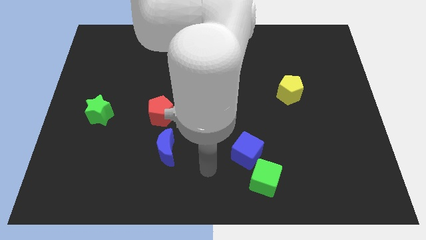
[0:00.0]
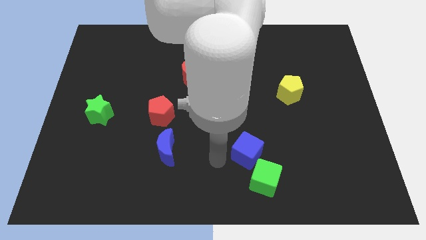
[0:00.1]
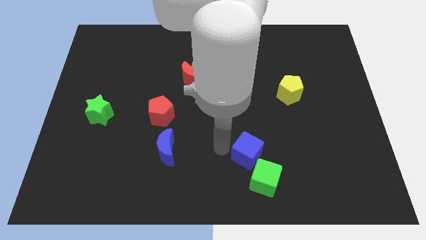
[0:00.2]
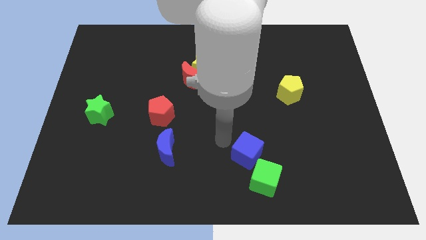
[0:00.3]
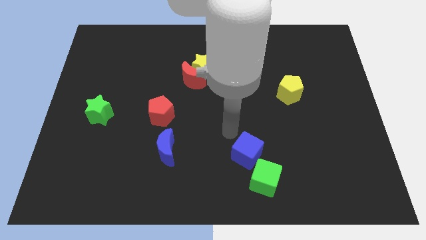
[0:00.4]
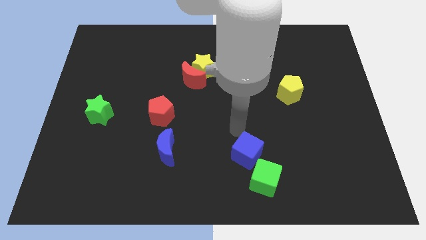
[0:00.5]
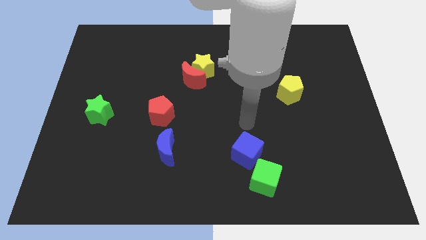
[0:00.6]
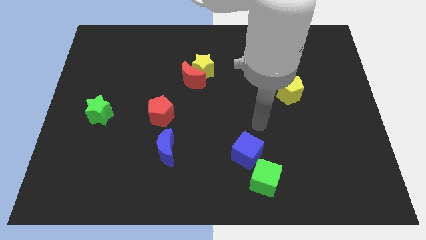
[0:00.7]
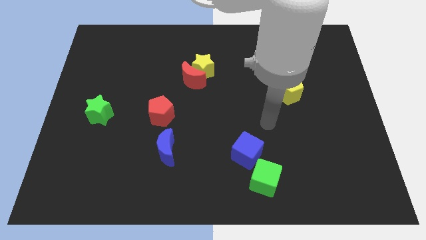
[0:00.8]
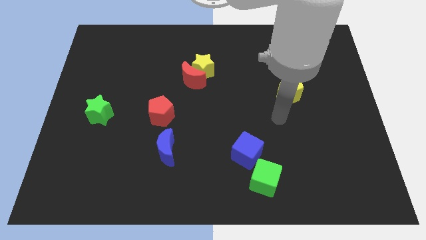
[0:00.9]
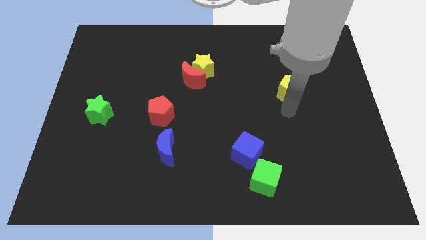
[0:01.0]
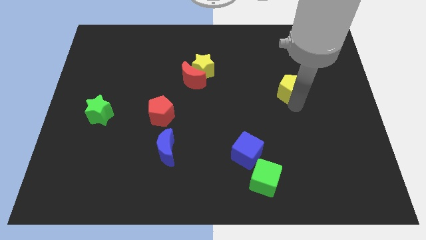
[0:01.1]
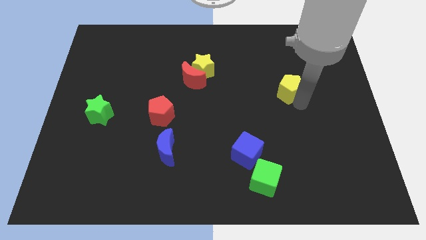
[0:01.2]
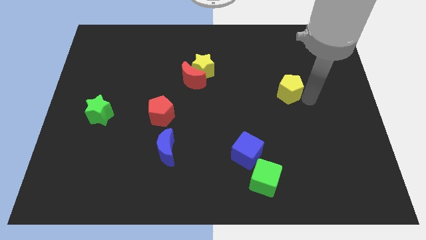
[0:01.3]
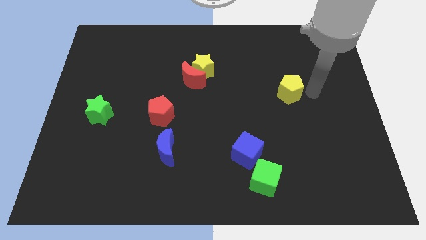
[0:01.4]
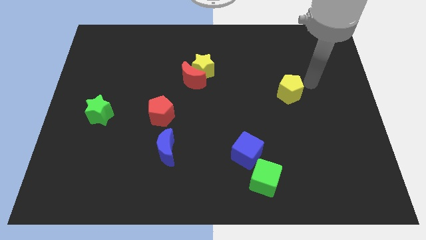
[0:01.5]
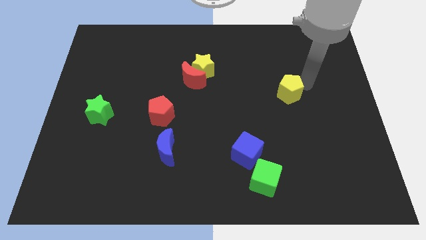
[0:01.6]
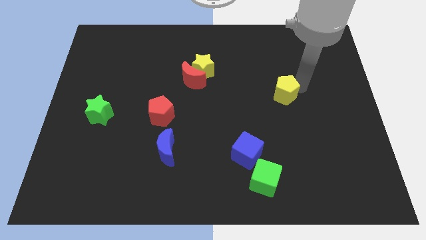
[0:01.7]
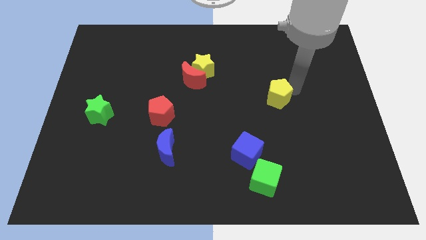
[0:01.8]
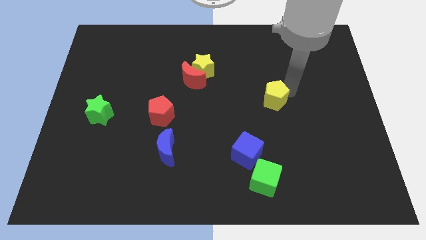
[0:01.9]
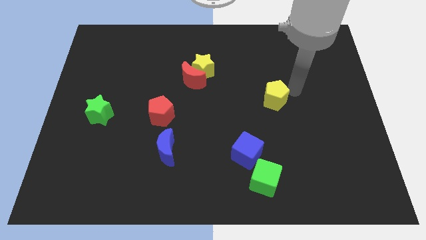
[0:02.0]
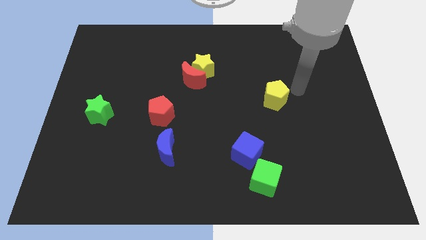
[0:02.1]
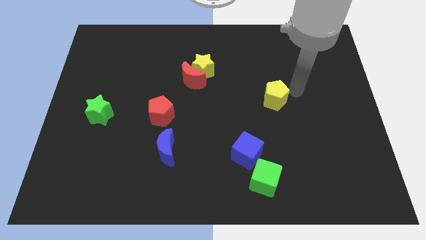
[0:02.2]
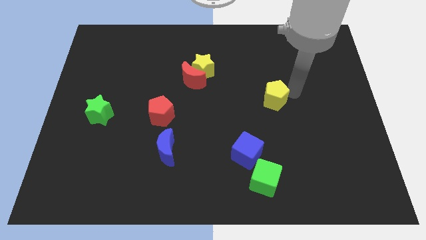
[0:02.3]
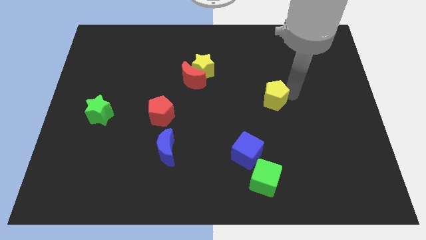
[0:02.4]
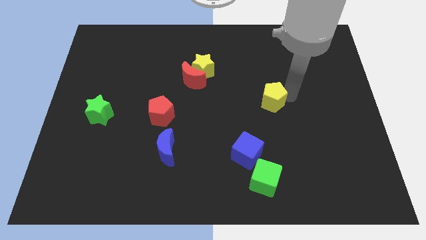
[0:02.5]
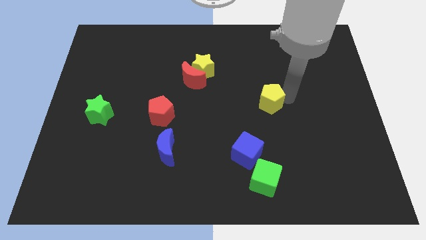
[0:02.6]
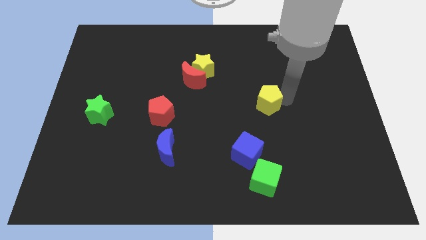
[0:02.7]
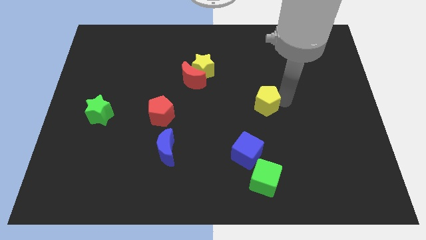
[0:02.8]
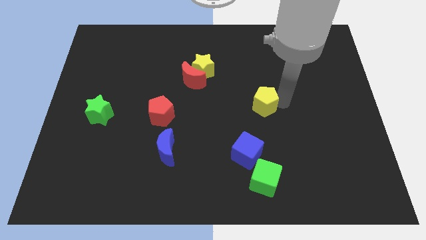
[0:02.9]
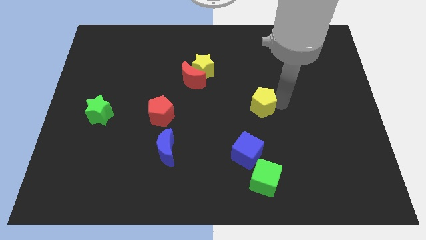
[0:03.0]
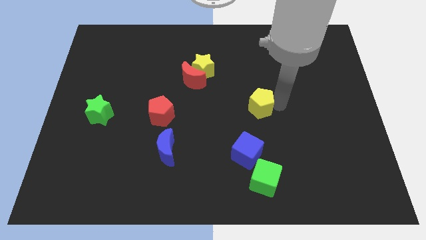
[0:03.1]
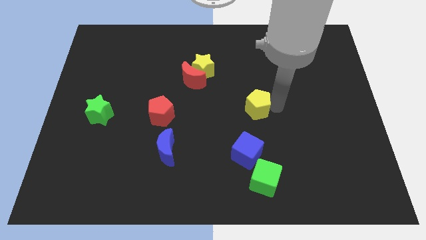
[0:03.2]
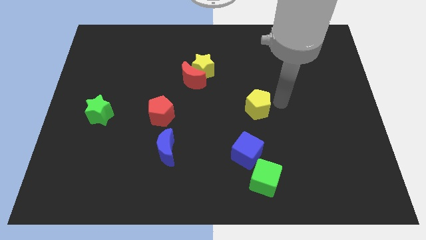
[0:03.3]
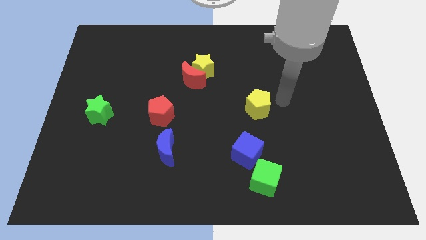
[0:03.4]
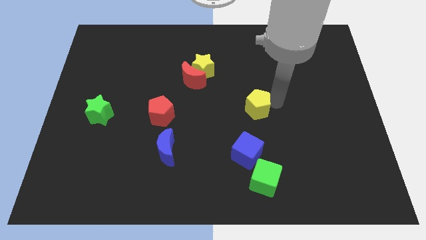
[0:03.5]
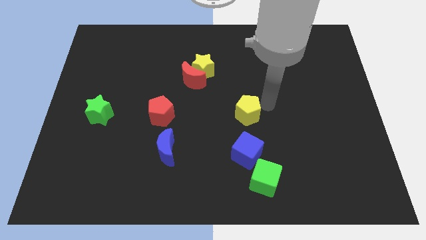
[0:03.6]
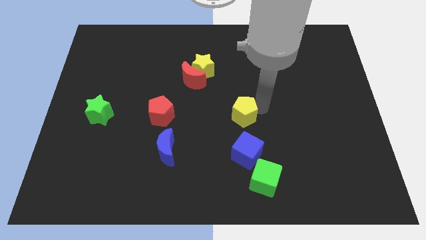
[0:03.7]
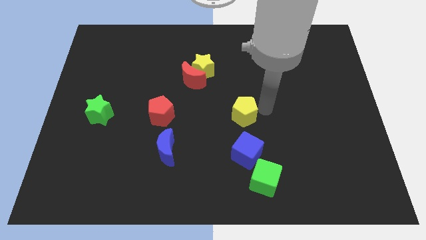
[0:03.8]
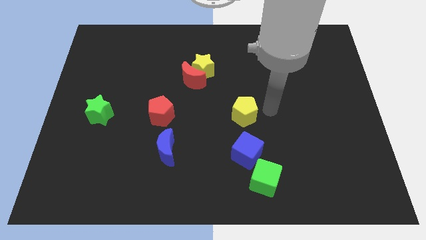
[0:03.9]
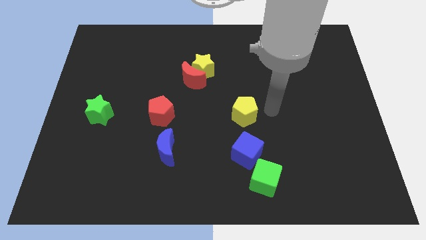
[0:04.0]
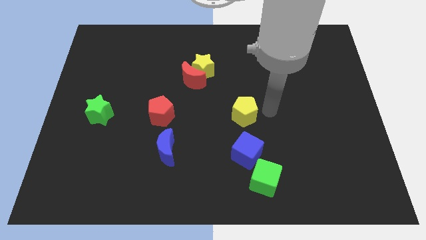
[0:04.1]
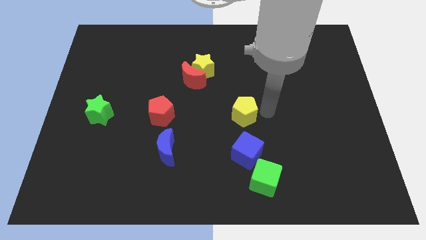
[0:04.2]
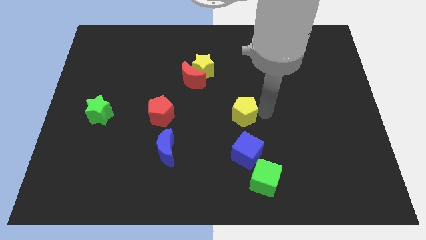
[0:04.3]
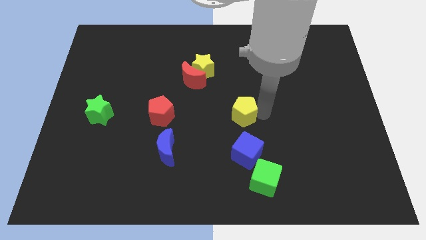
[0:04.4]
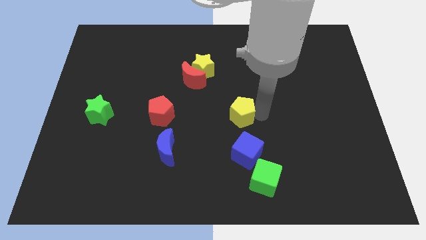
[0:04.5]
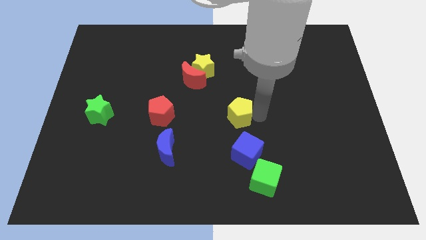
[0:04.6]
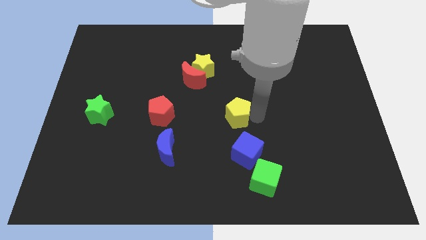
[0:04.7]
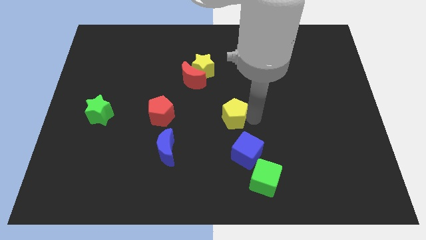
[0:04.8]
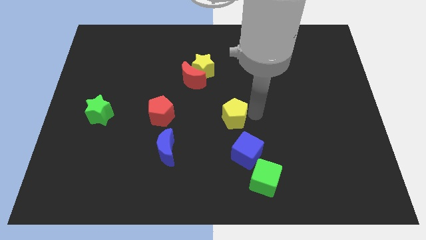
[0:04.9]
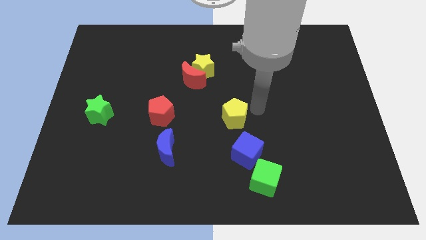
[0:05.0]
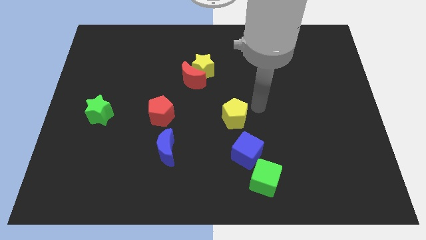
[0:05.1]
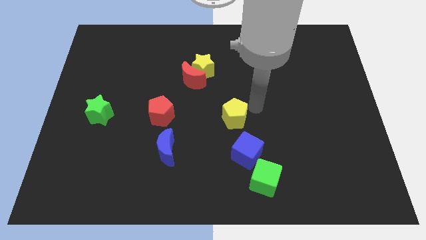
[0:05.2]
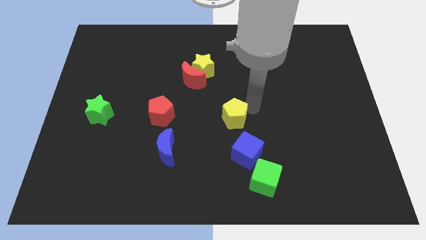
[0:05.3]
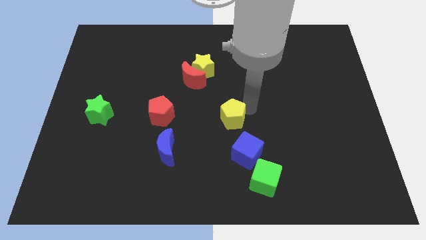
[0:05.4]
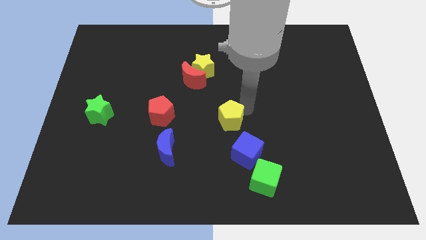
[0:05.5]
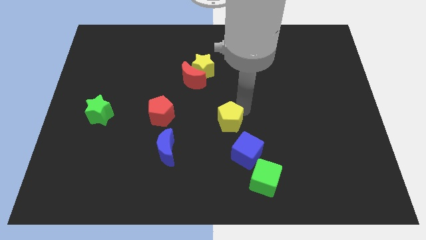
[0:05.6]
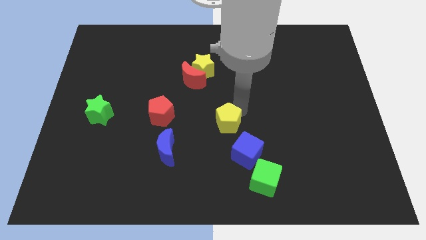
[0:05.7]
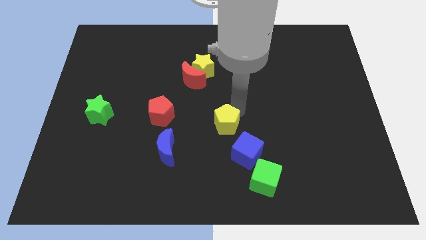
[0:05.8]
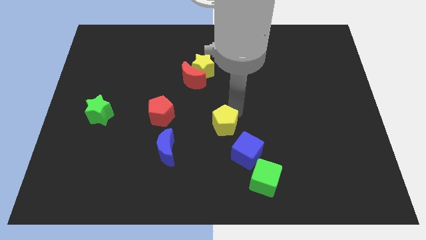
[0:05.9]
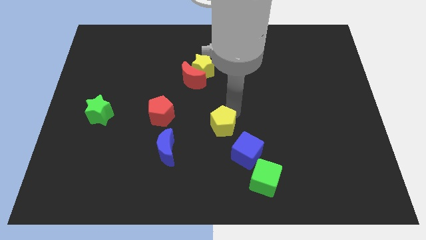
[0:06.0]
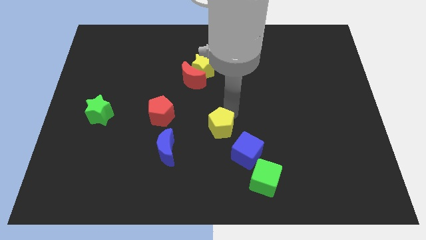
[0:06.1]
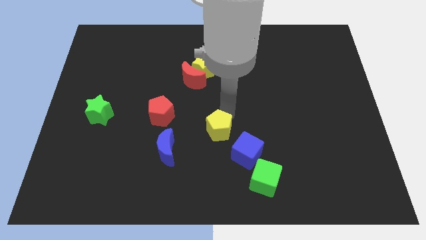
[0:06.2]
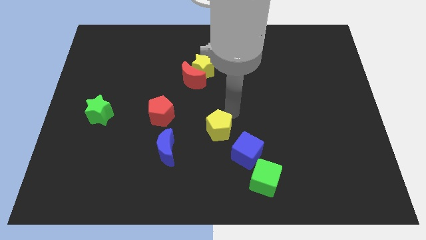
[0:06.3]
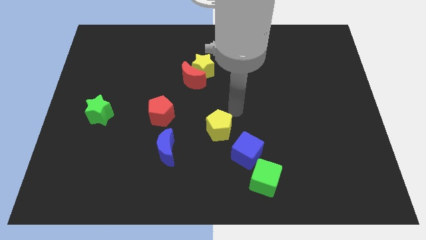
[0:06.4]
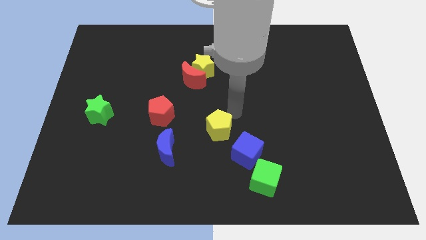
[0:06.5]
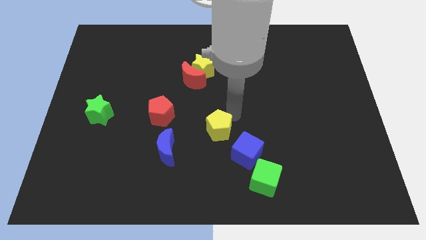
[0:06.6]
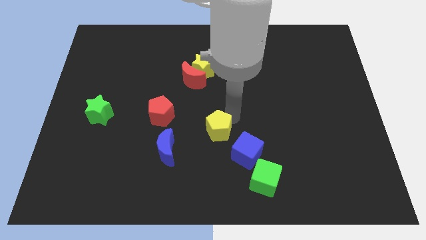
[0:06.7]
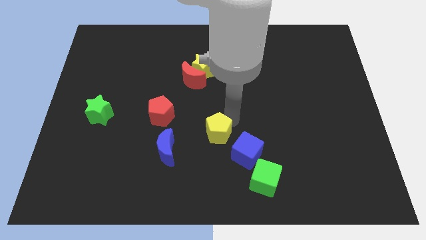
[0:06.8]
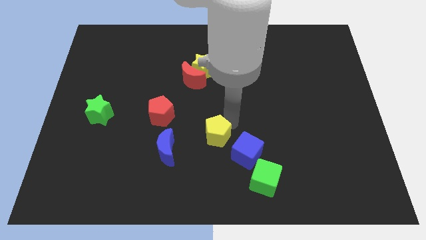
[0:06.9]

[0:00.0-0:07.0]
put the yellow pentagon to the left of the blue cube
